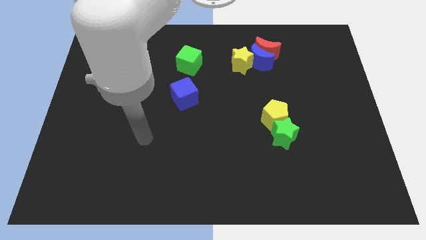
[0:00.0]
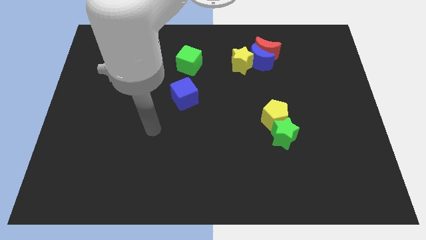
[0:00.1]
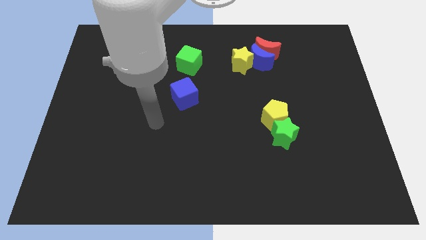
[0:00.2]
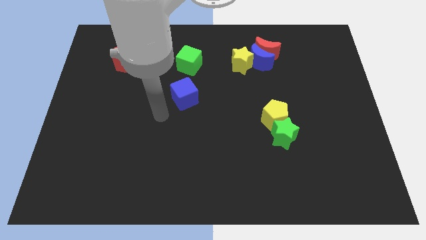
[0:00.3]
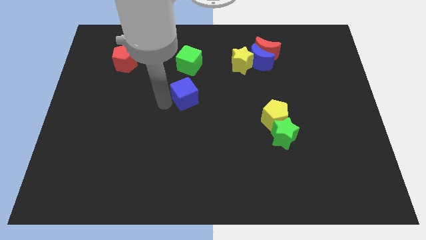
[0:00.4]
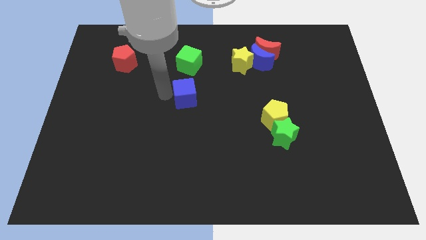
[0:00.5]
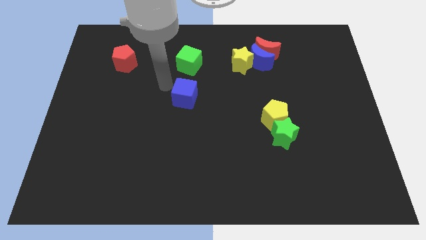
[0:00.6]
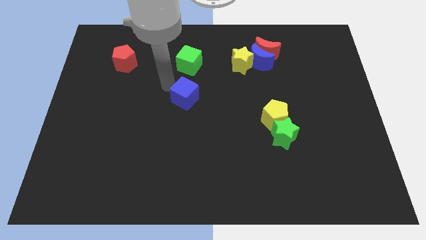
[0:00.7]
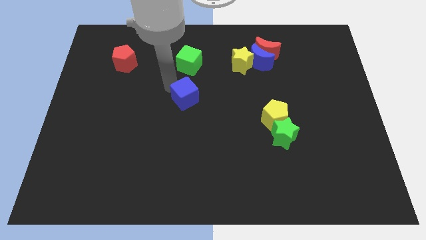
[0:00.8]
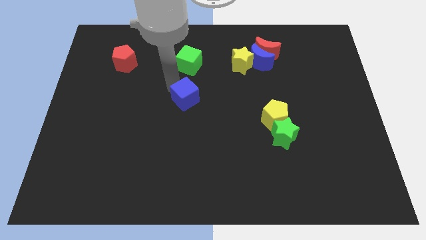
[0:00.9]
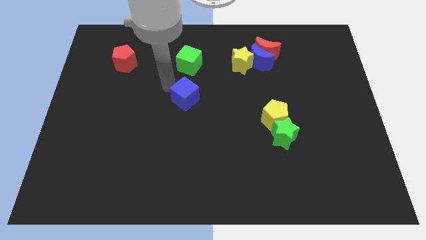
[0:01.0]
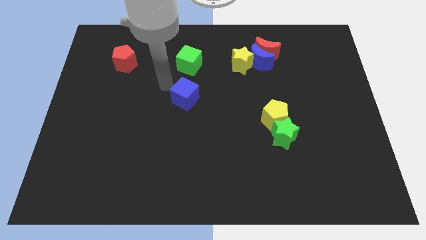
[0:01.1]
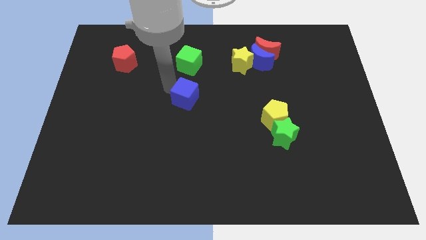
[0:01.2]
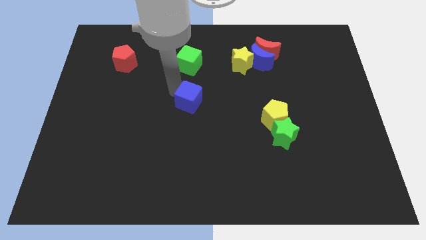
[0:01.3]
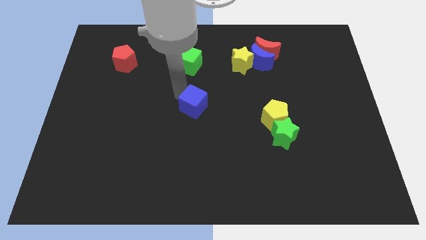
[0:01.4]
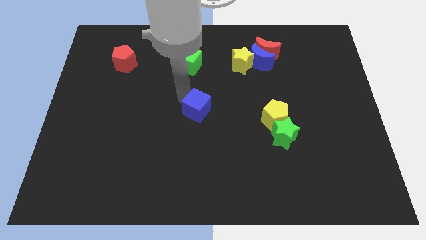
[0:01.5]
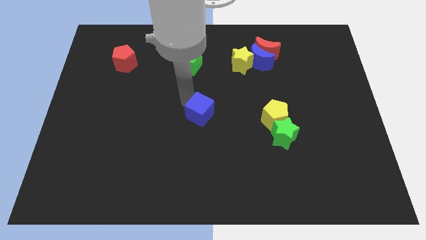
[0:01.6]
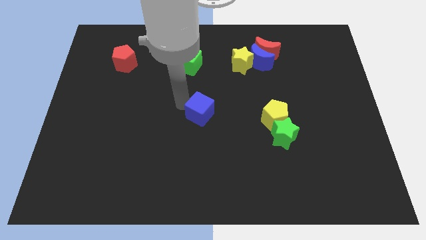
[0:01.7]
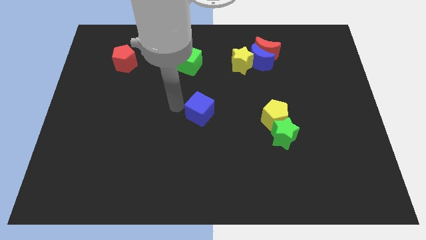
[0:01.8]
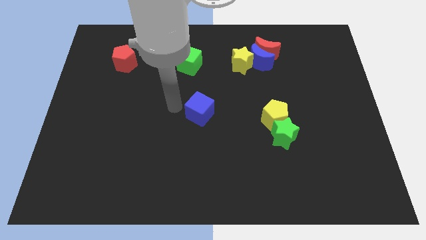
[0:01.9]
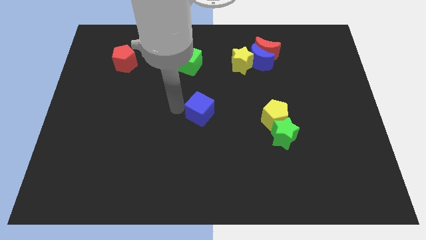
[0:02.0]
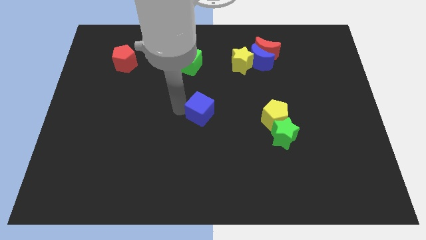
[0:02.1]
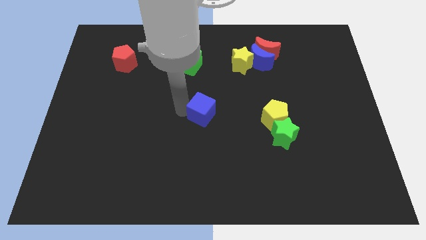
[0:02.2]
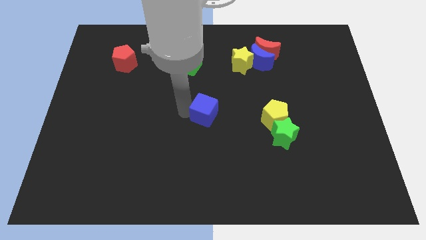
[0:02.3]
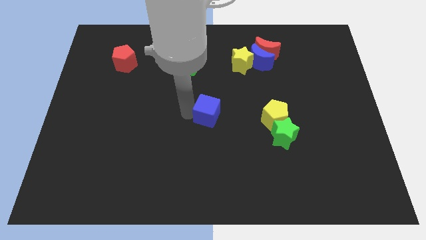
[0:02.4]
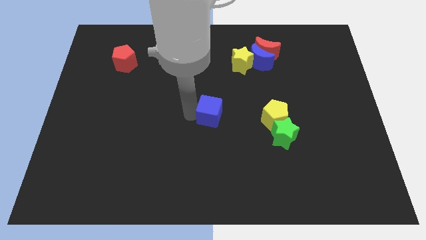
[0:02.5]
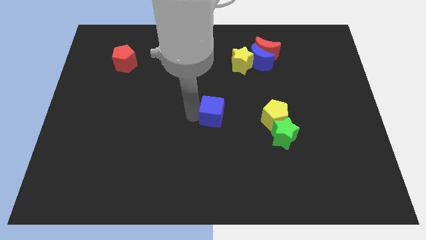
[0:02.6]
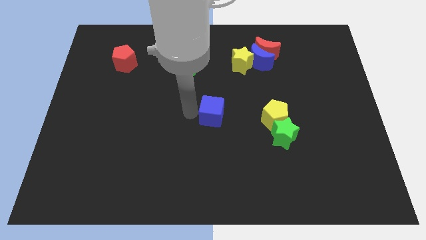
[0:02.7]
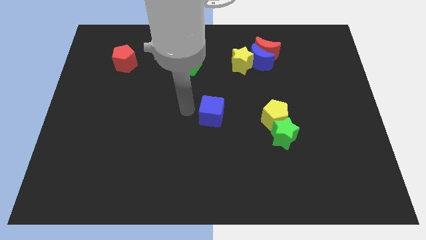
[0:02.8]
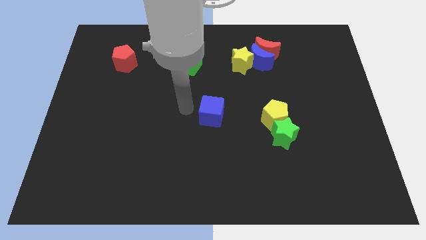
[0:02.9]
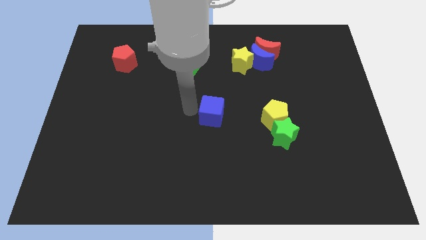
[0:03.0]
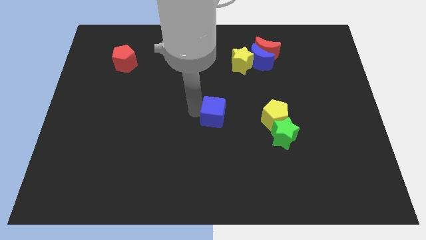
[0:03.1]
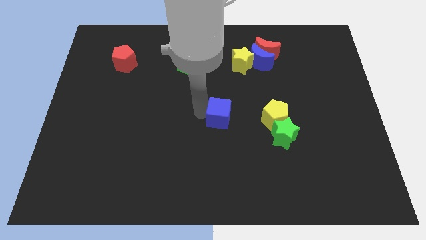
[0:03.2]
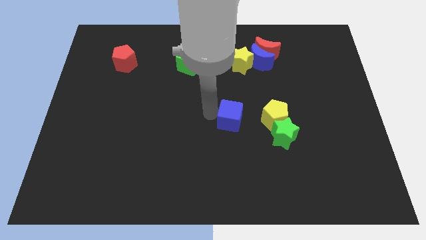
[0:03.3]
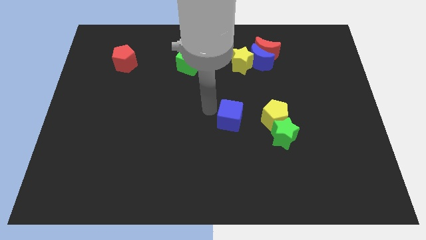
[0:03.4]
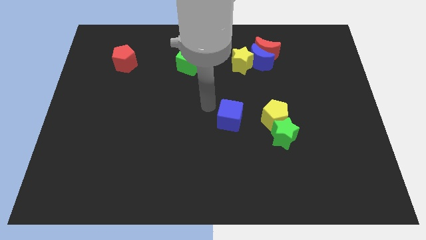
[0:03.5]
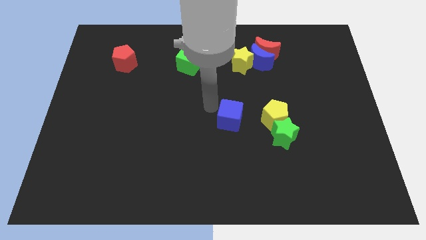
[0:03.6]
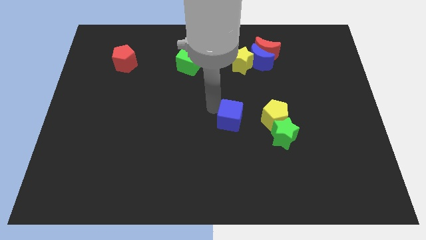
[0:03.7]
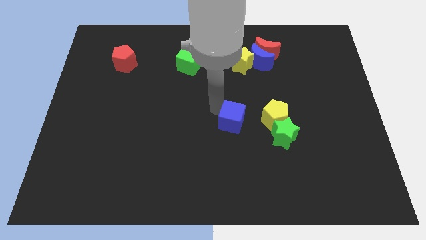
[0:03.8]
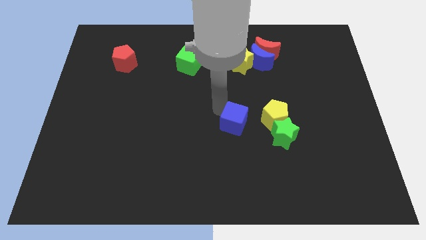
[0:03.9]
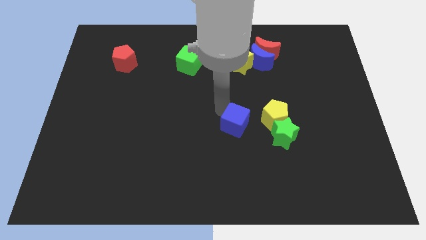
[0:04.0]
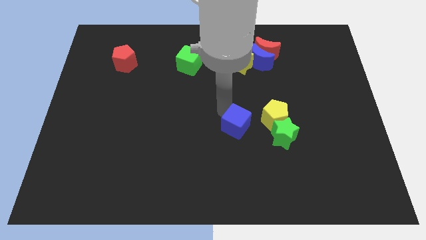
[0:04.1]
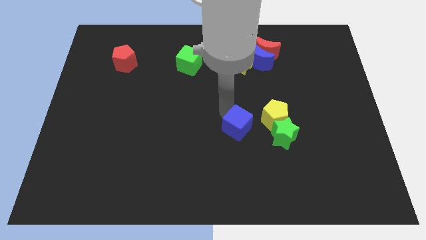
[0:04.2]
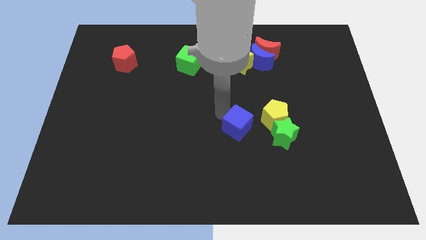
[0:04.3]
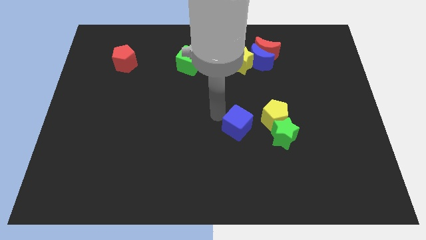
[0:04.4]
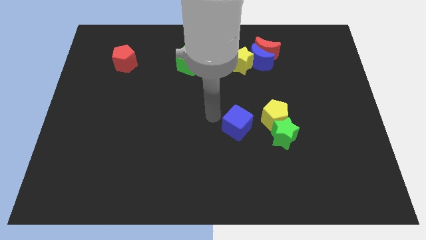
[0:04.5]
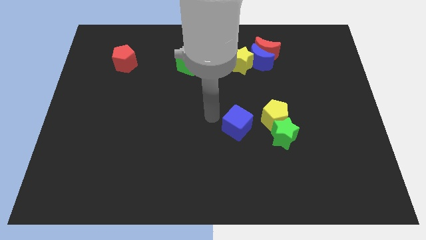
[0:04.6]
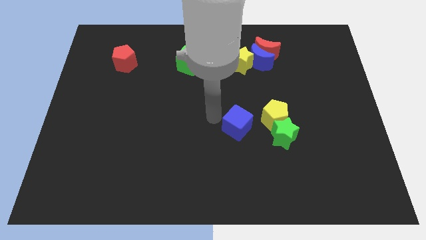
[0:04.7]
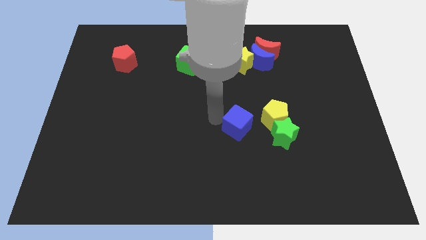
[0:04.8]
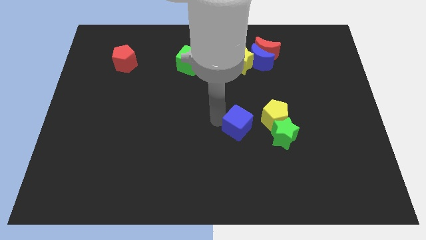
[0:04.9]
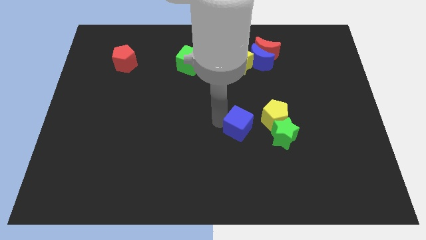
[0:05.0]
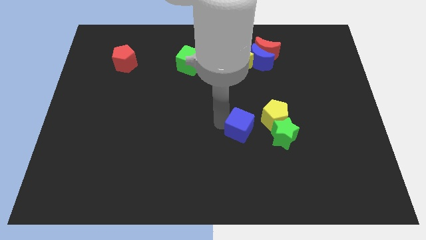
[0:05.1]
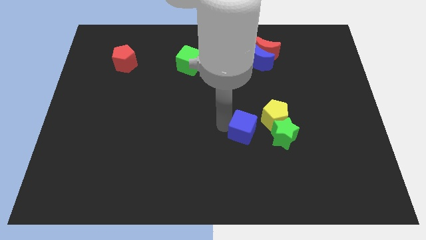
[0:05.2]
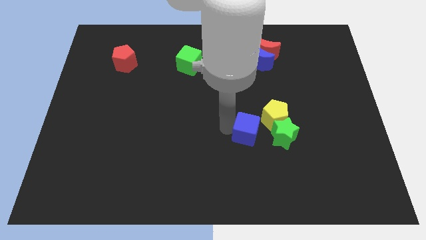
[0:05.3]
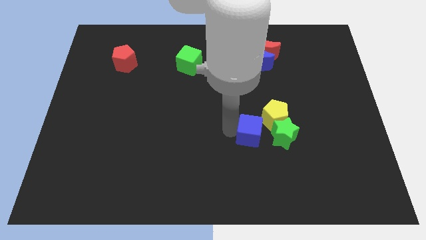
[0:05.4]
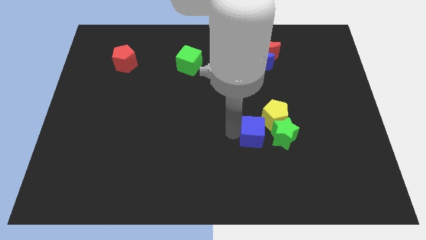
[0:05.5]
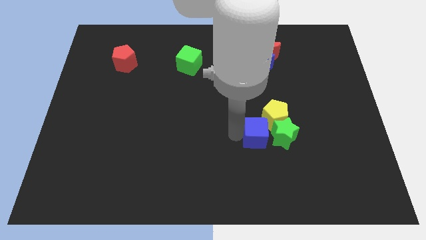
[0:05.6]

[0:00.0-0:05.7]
slide the blue cube close to the green star
